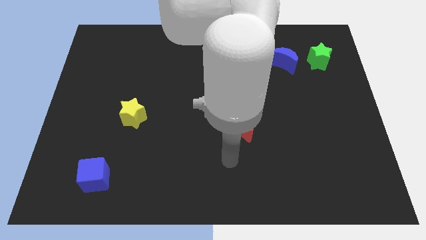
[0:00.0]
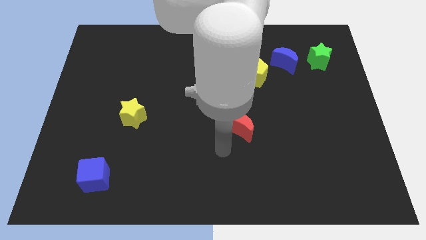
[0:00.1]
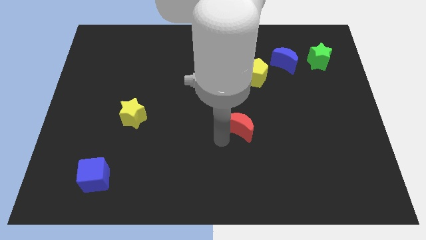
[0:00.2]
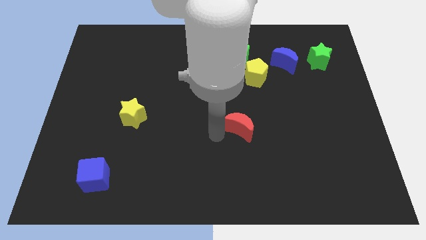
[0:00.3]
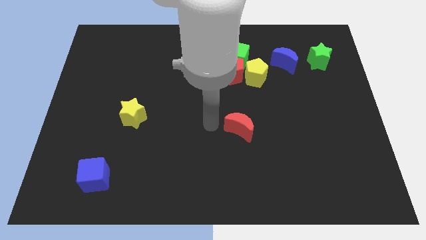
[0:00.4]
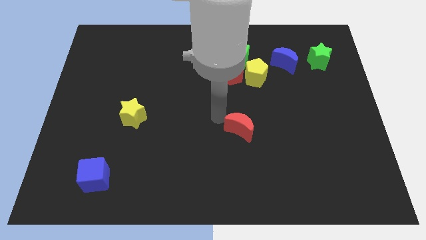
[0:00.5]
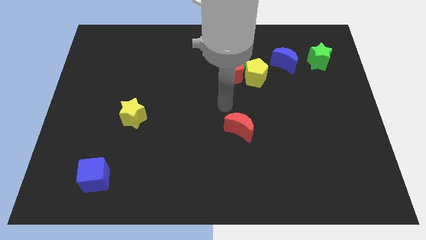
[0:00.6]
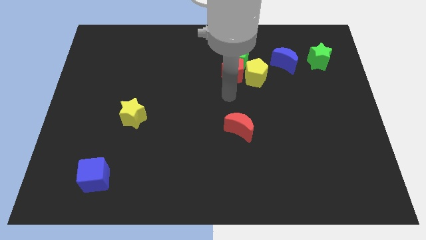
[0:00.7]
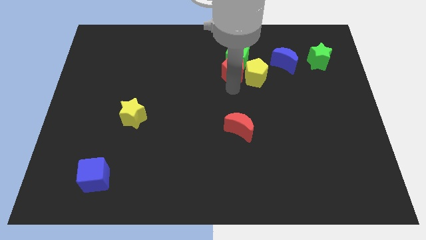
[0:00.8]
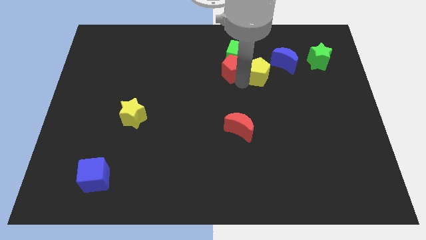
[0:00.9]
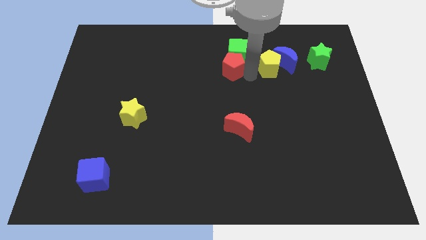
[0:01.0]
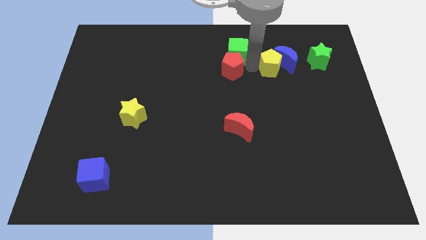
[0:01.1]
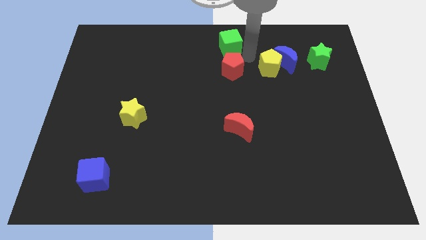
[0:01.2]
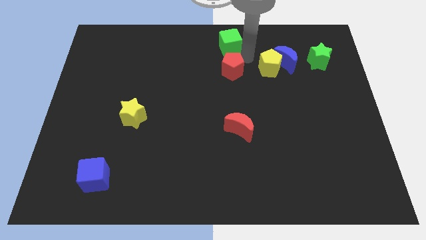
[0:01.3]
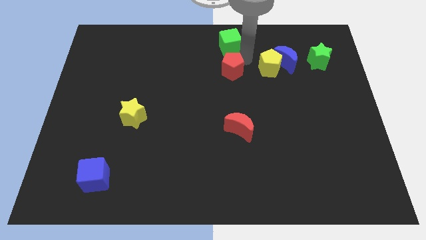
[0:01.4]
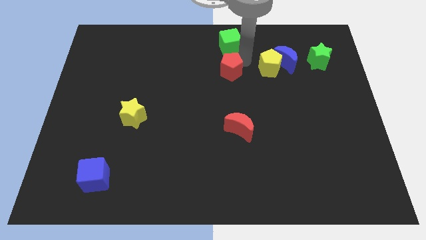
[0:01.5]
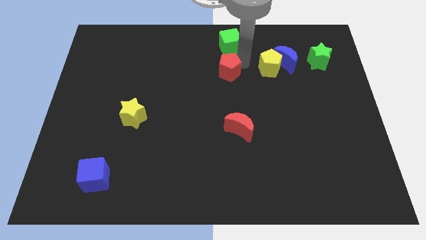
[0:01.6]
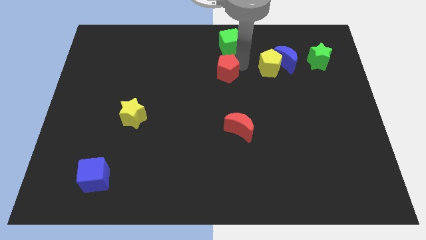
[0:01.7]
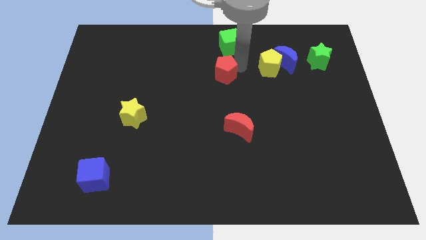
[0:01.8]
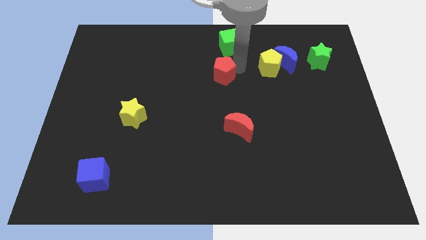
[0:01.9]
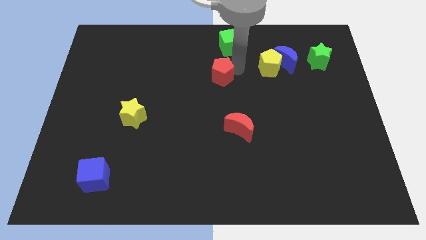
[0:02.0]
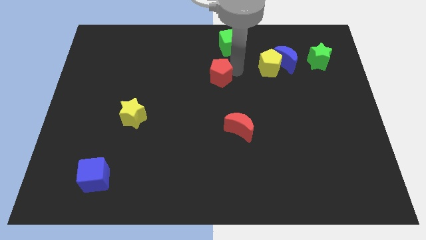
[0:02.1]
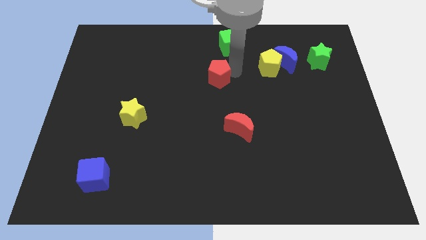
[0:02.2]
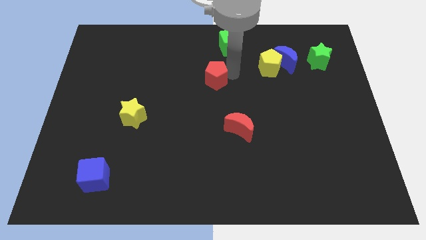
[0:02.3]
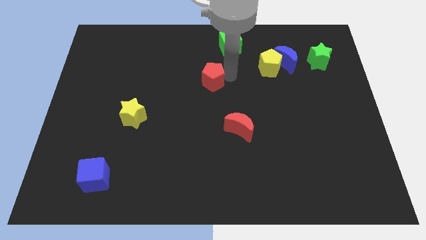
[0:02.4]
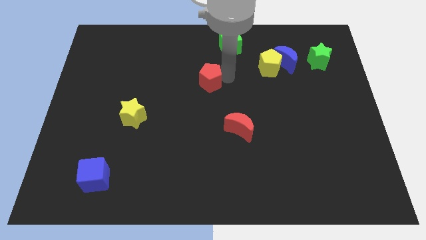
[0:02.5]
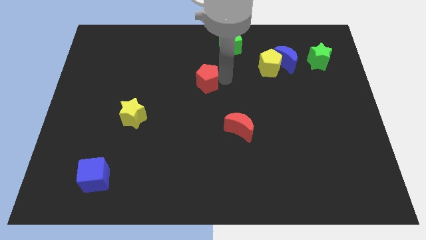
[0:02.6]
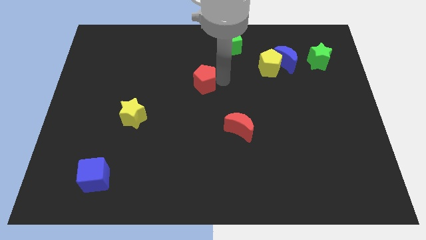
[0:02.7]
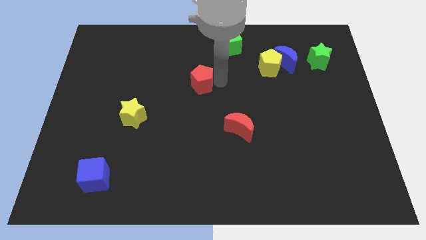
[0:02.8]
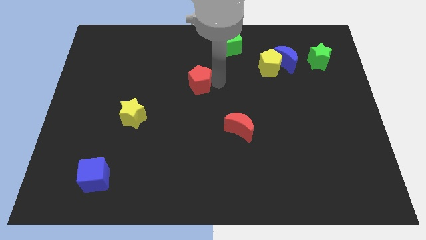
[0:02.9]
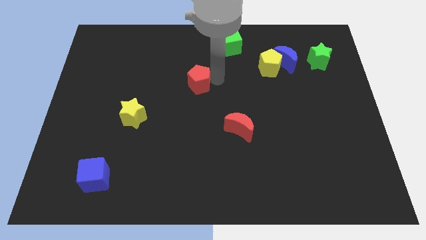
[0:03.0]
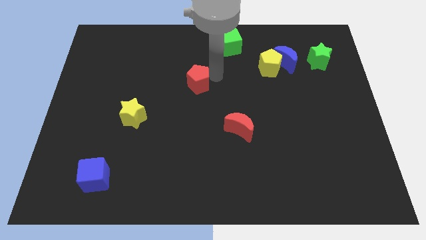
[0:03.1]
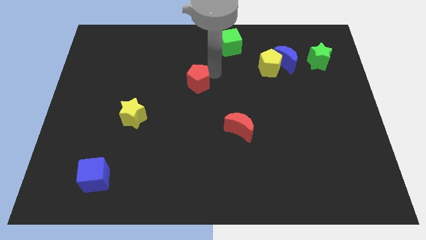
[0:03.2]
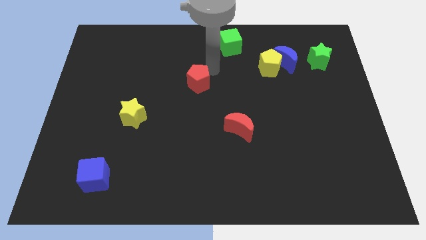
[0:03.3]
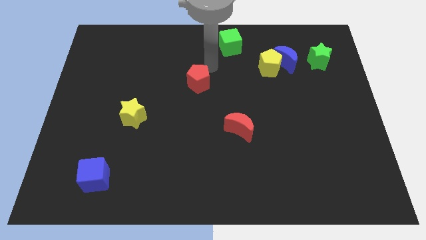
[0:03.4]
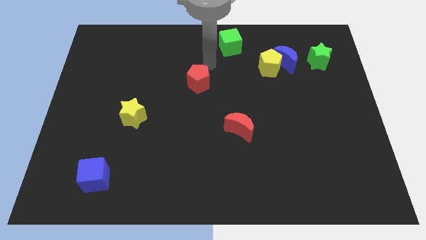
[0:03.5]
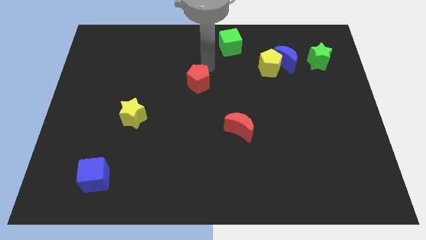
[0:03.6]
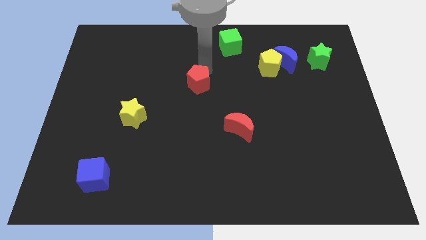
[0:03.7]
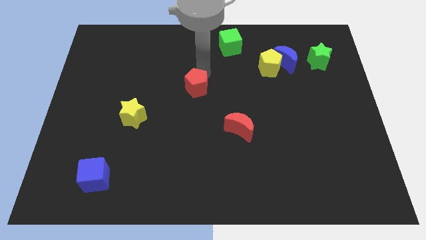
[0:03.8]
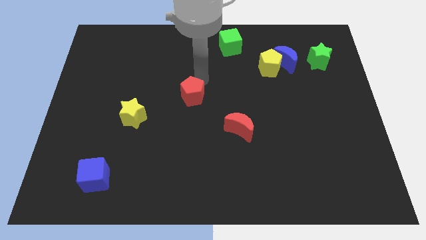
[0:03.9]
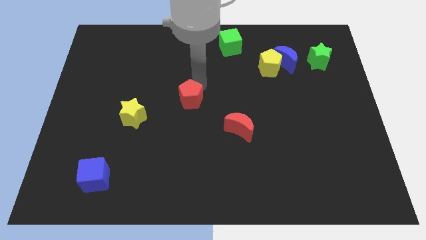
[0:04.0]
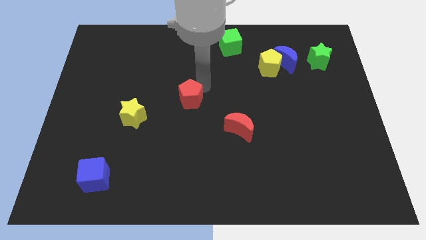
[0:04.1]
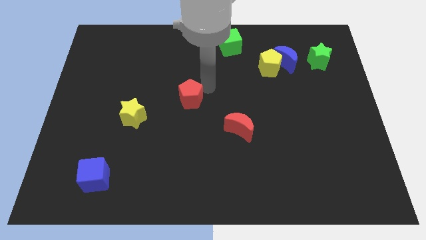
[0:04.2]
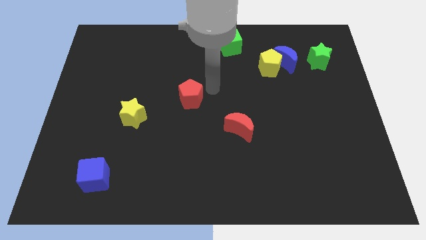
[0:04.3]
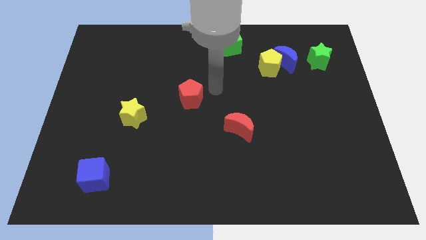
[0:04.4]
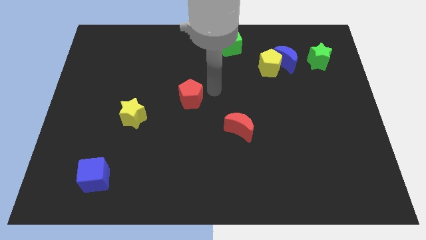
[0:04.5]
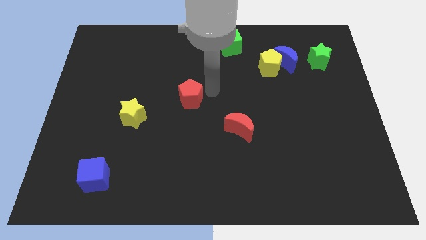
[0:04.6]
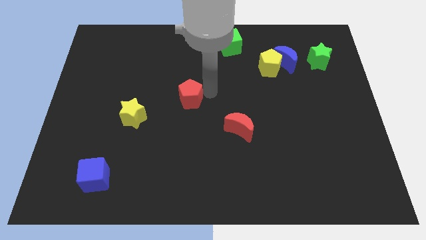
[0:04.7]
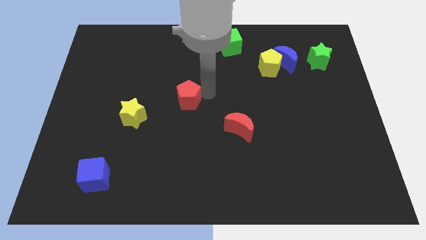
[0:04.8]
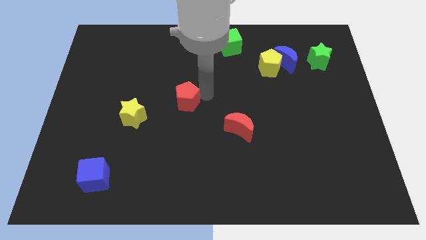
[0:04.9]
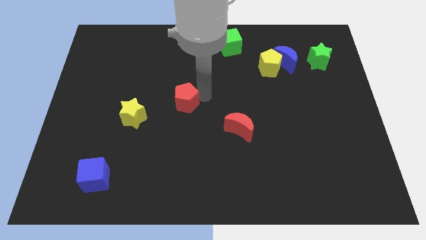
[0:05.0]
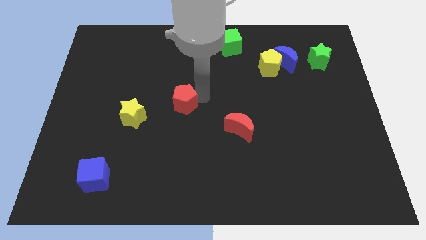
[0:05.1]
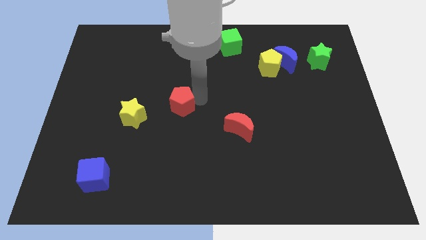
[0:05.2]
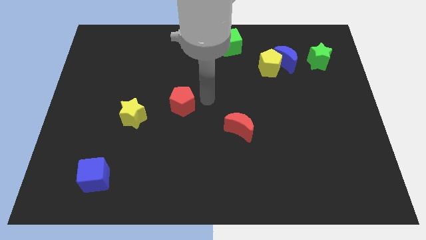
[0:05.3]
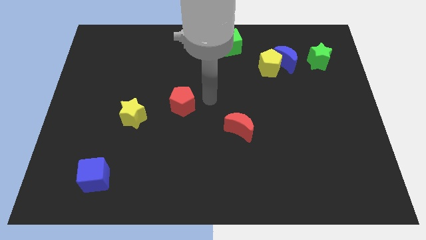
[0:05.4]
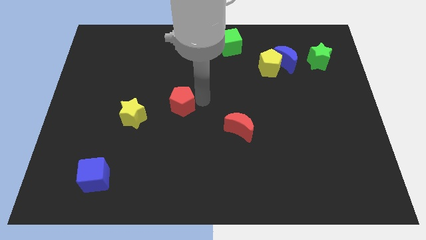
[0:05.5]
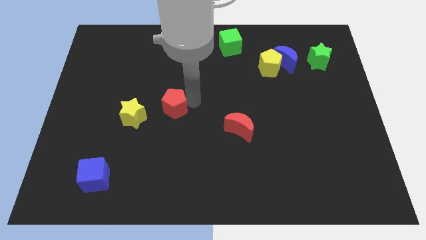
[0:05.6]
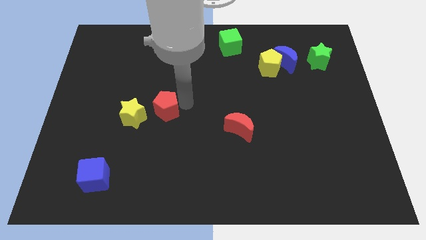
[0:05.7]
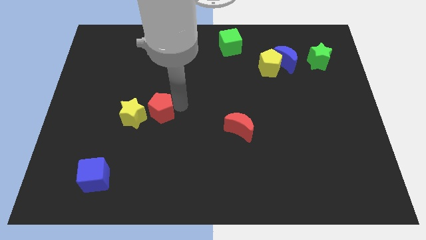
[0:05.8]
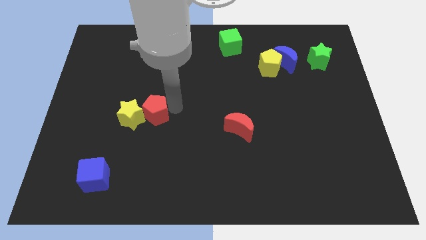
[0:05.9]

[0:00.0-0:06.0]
slide the red pentagon towards the yellow star

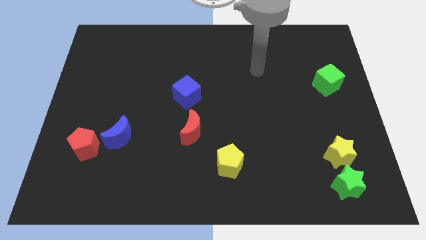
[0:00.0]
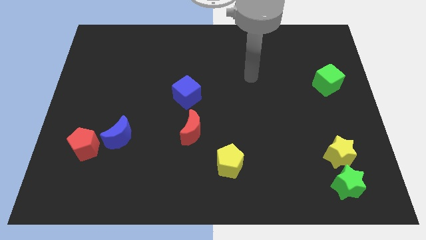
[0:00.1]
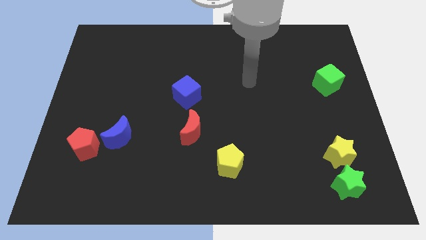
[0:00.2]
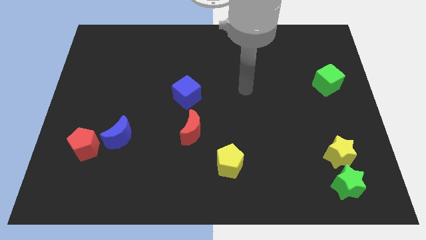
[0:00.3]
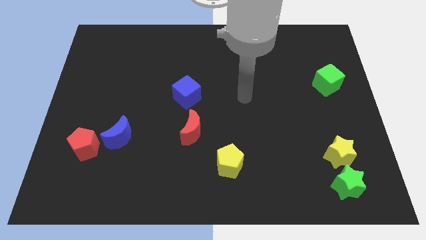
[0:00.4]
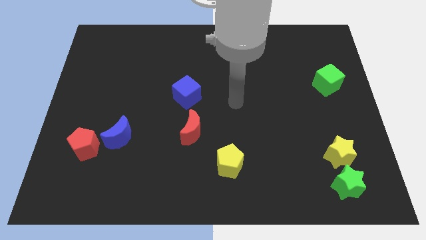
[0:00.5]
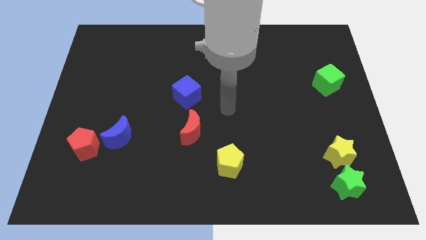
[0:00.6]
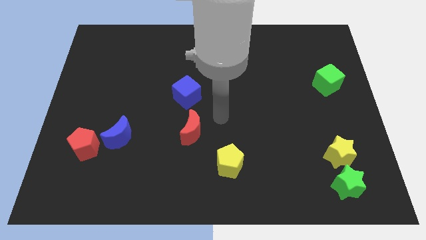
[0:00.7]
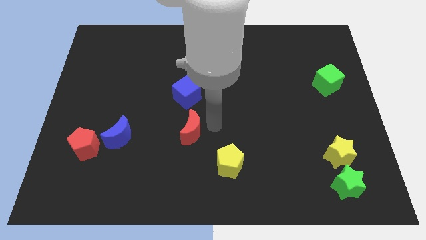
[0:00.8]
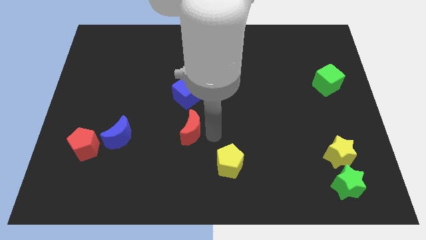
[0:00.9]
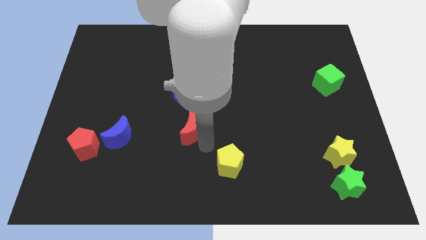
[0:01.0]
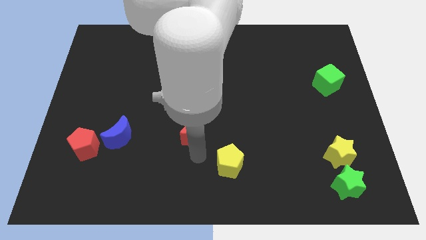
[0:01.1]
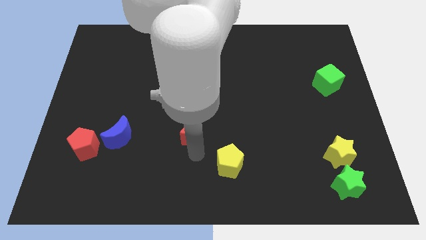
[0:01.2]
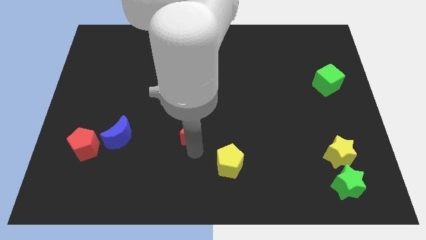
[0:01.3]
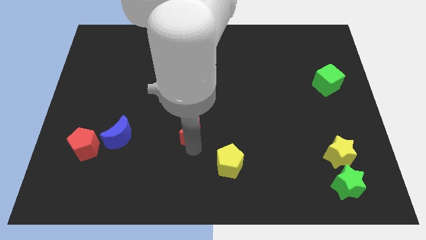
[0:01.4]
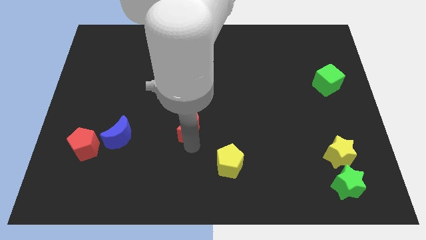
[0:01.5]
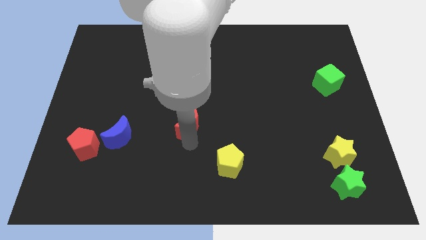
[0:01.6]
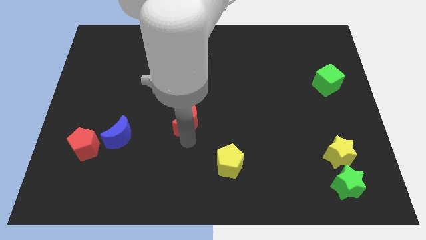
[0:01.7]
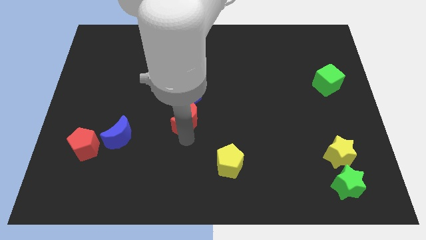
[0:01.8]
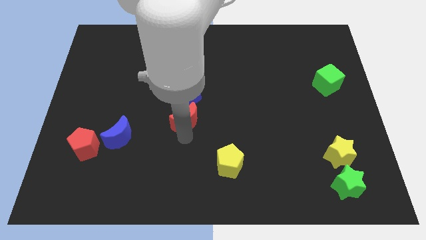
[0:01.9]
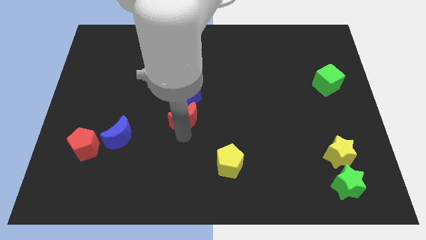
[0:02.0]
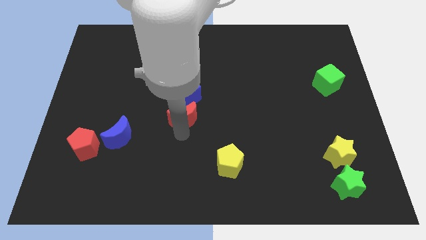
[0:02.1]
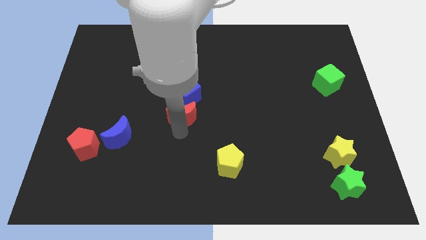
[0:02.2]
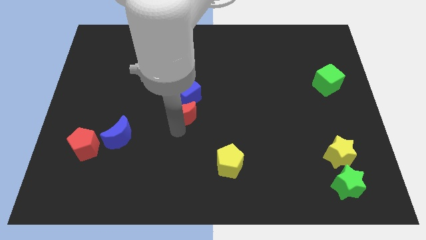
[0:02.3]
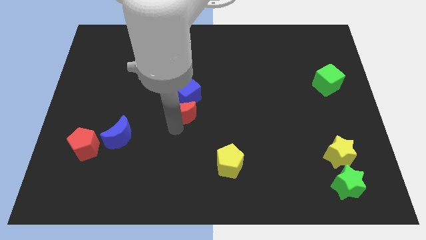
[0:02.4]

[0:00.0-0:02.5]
move the red moon to the blue cube
